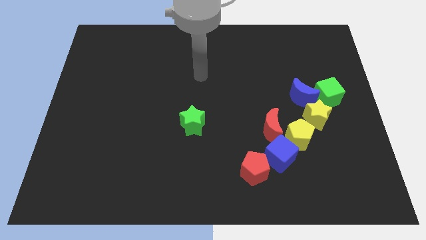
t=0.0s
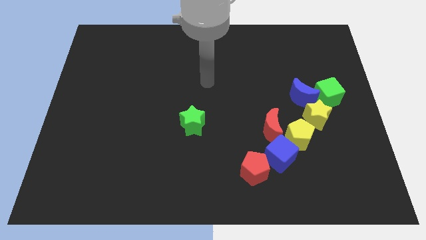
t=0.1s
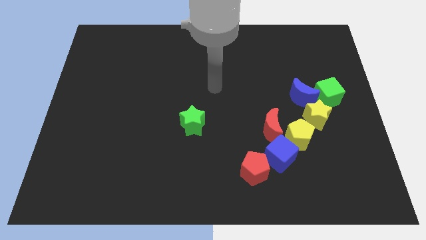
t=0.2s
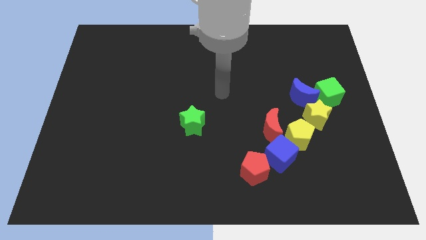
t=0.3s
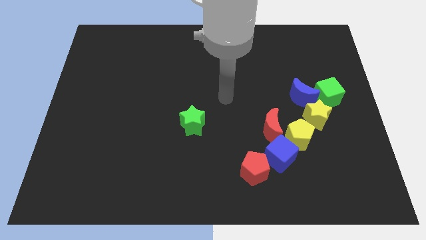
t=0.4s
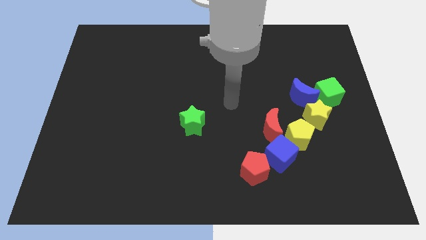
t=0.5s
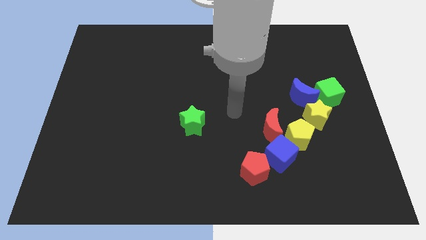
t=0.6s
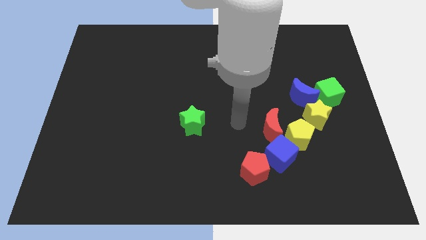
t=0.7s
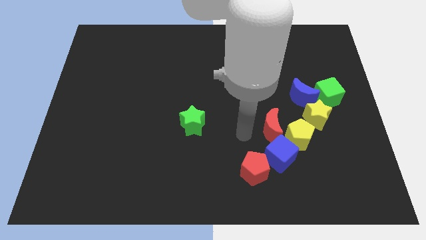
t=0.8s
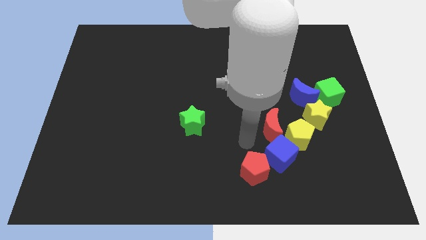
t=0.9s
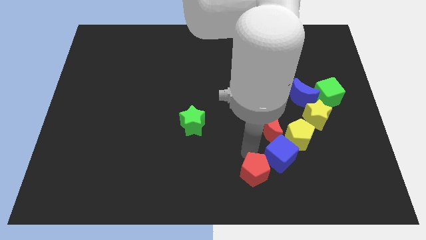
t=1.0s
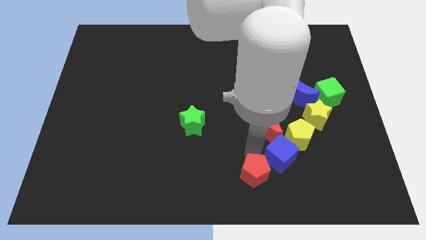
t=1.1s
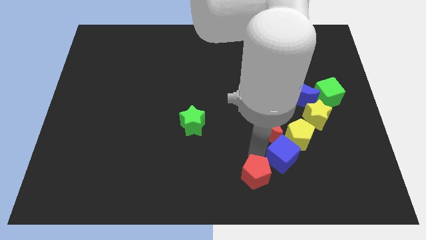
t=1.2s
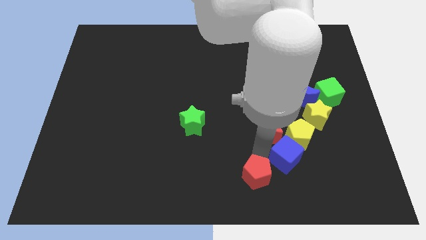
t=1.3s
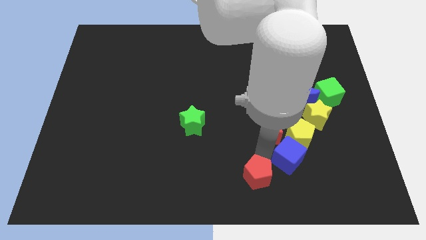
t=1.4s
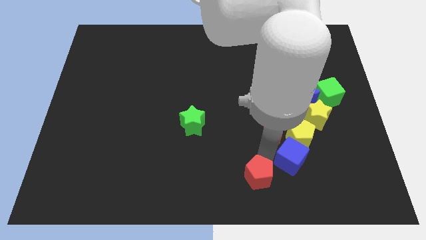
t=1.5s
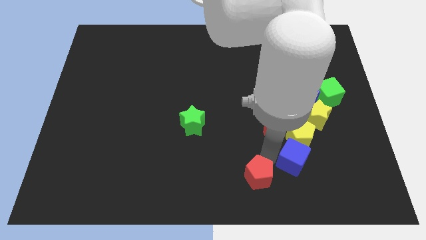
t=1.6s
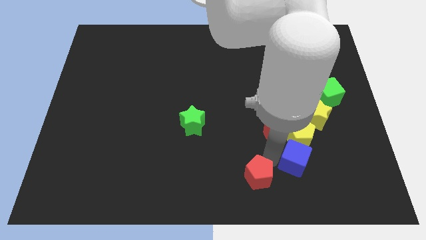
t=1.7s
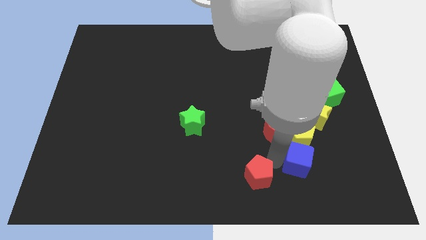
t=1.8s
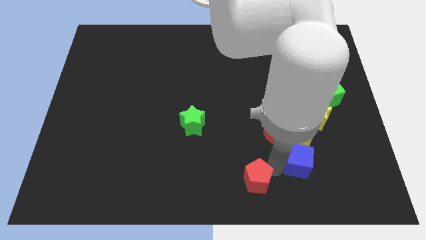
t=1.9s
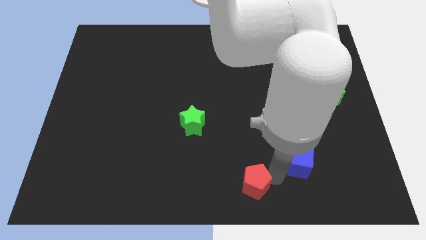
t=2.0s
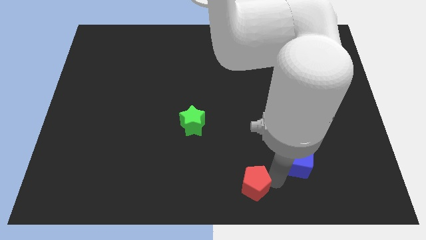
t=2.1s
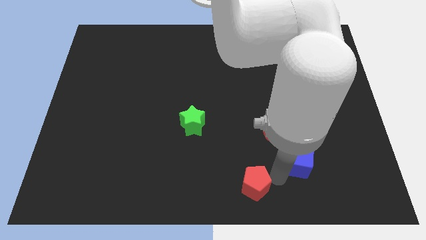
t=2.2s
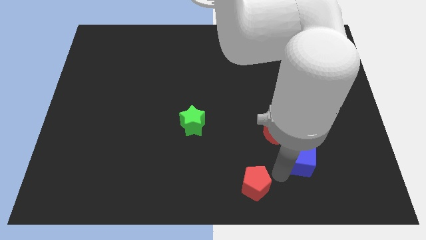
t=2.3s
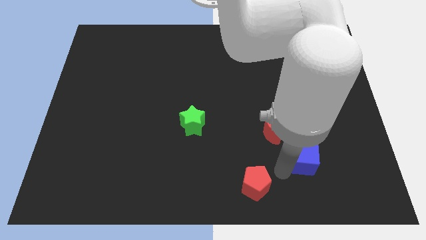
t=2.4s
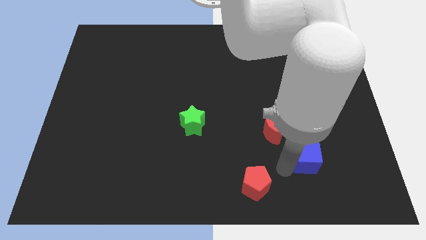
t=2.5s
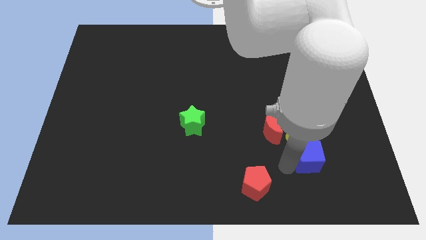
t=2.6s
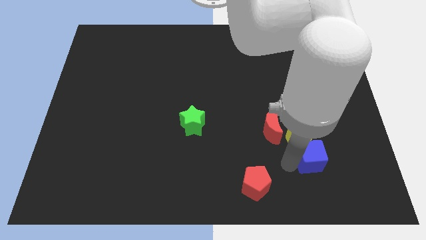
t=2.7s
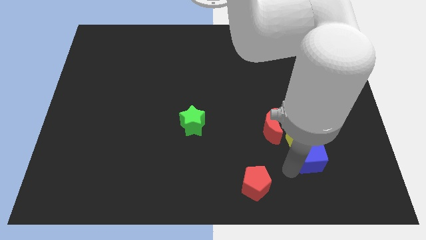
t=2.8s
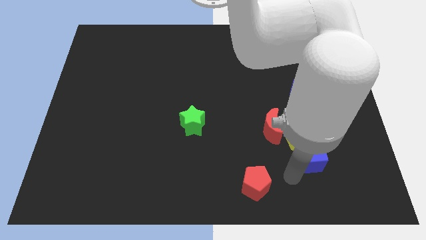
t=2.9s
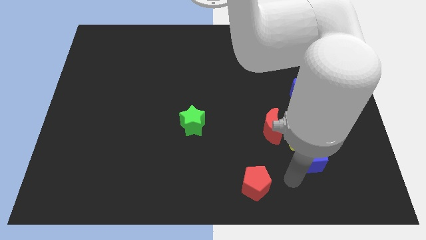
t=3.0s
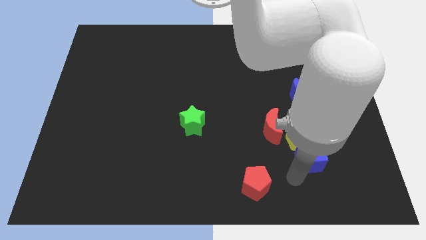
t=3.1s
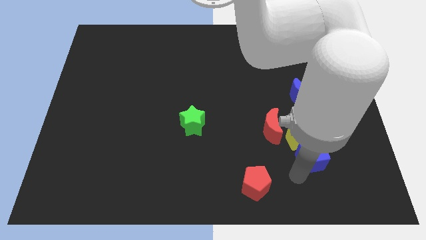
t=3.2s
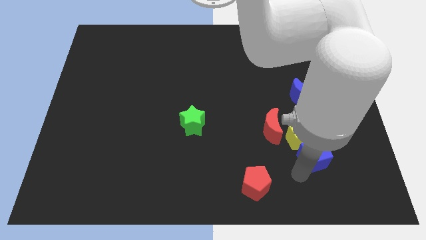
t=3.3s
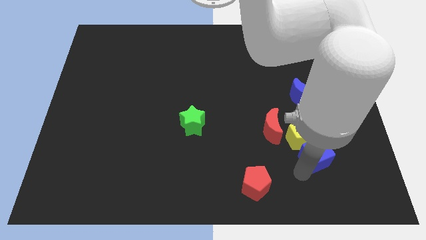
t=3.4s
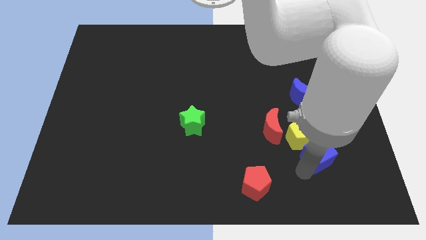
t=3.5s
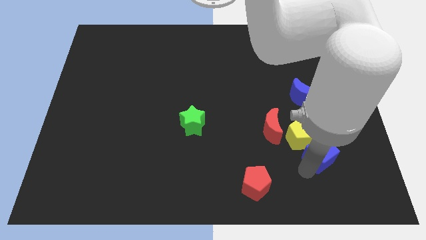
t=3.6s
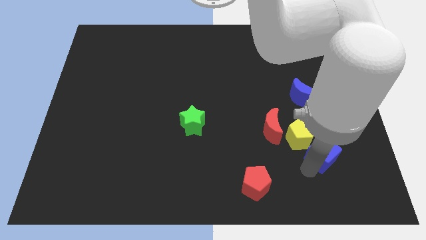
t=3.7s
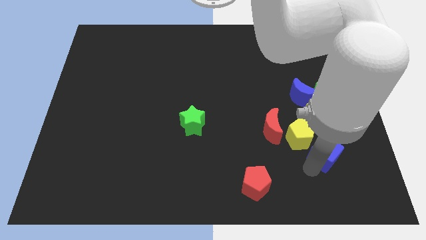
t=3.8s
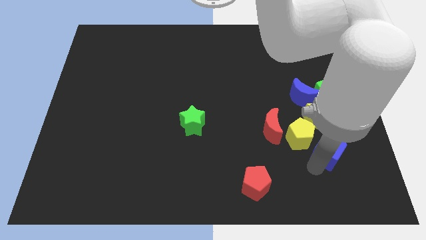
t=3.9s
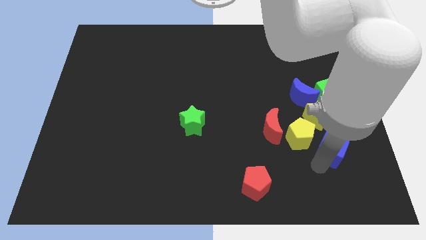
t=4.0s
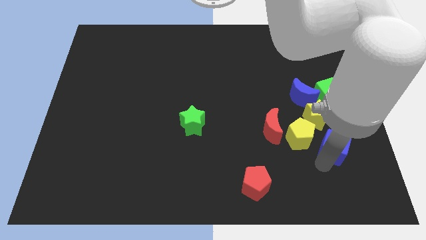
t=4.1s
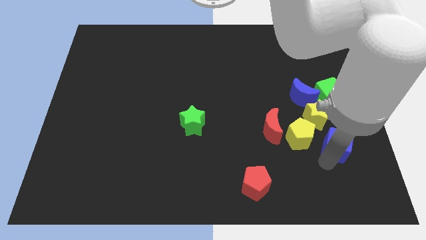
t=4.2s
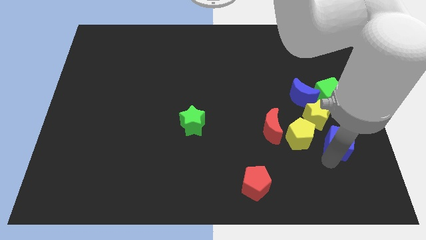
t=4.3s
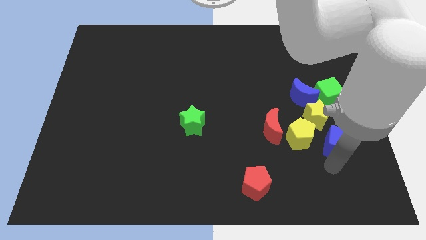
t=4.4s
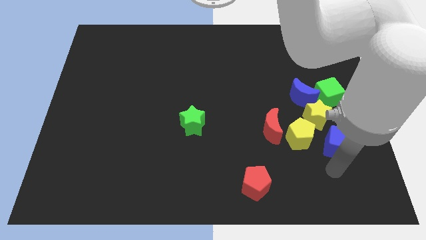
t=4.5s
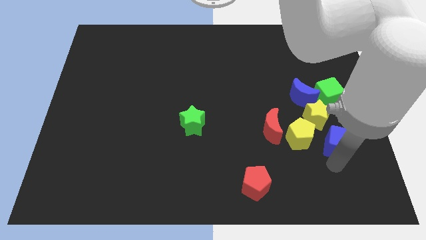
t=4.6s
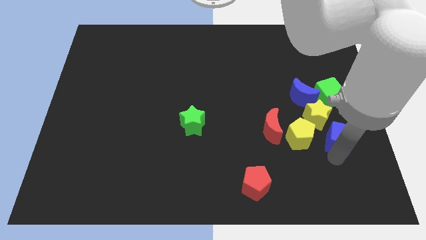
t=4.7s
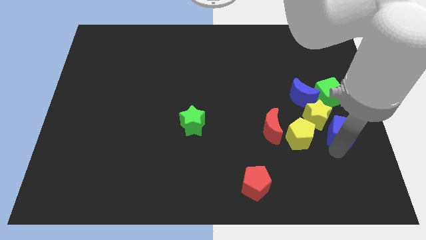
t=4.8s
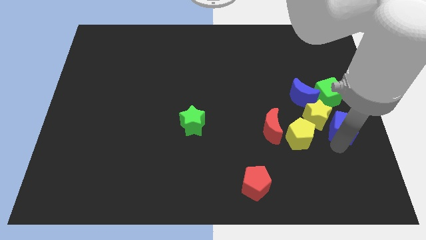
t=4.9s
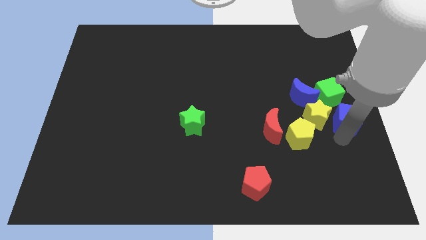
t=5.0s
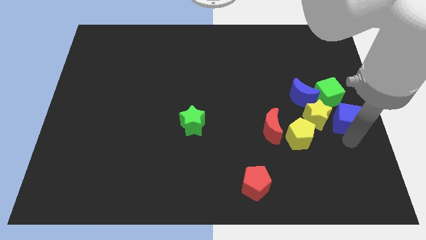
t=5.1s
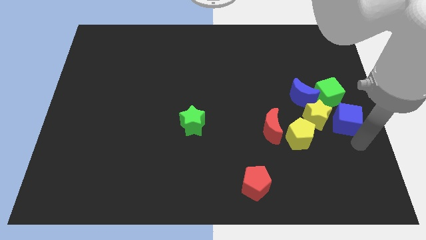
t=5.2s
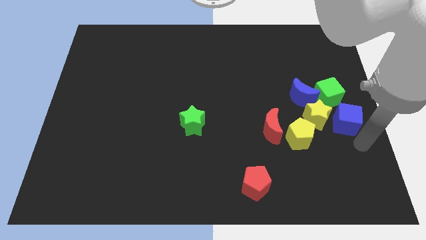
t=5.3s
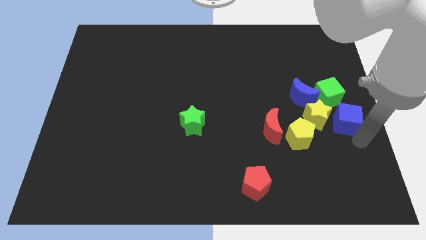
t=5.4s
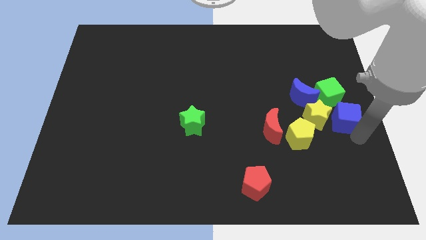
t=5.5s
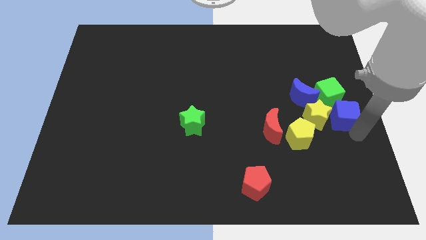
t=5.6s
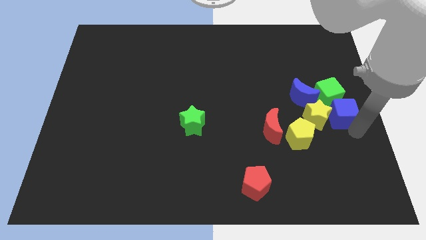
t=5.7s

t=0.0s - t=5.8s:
put the blue cube next to the green cube

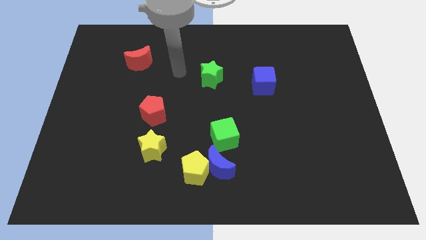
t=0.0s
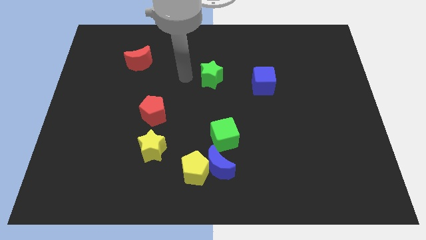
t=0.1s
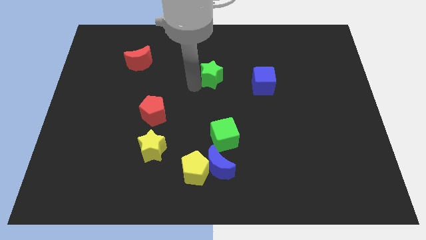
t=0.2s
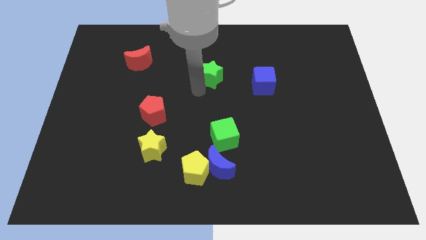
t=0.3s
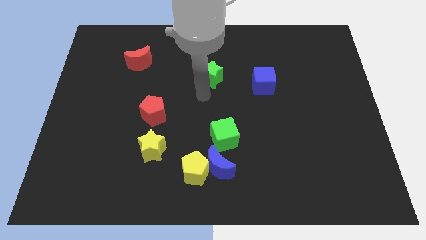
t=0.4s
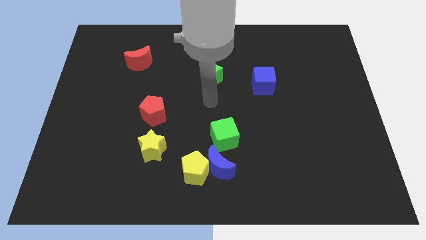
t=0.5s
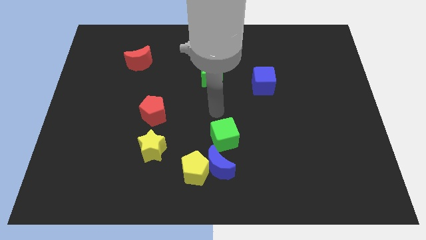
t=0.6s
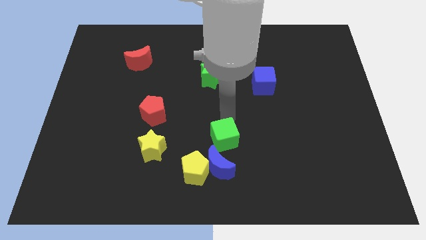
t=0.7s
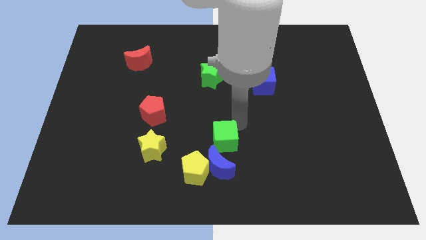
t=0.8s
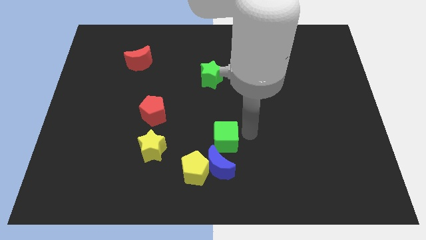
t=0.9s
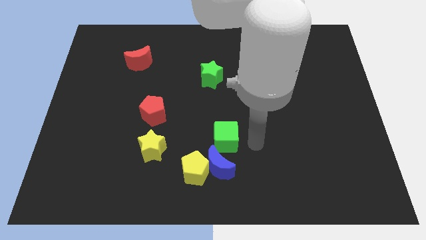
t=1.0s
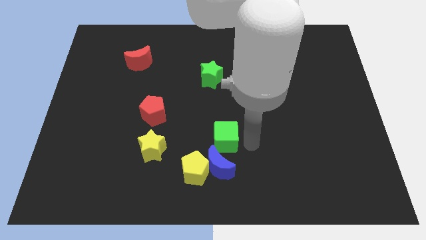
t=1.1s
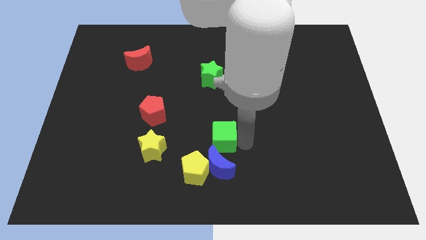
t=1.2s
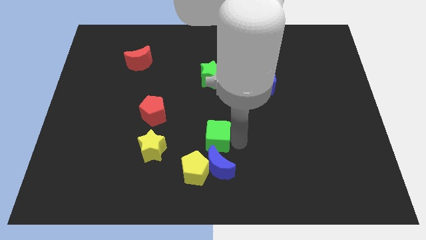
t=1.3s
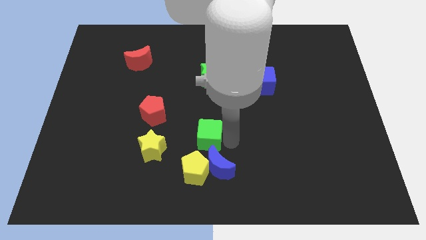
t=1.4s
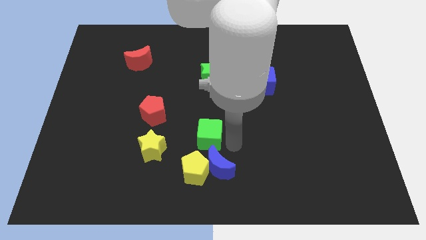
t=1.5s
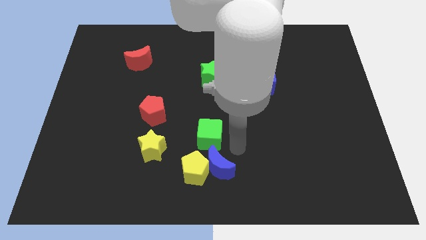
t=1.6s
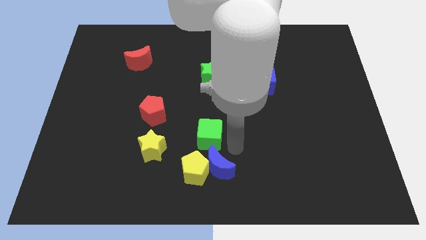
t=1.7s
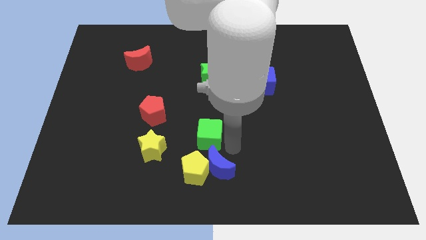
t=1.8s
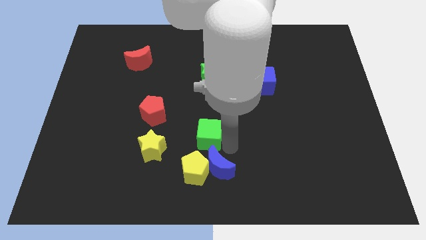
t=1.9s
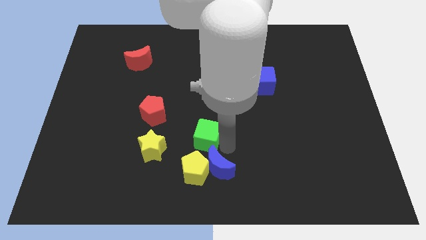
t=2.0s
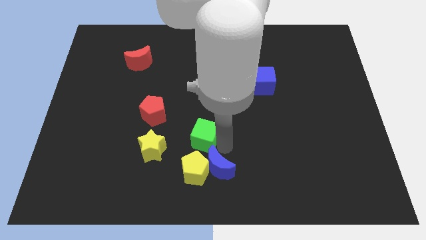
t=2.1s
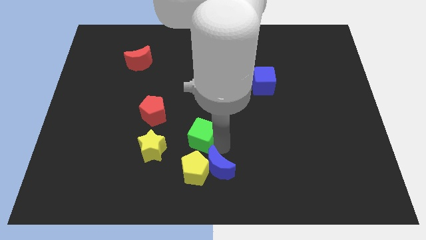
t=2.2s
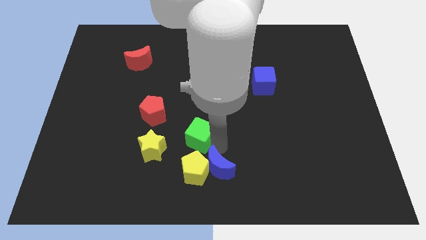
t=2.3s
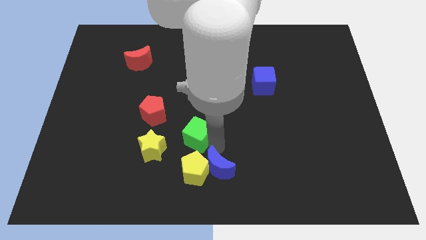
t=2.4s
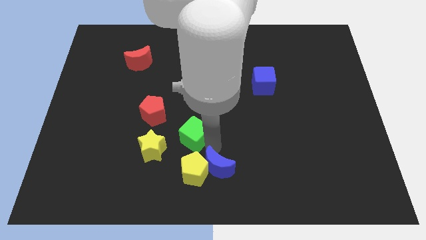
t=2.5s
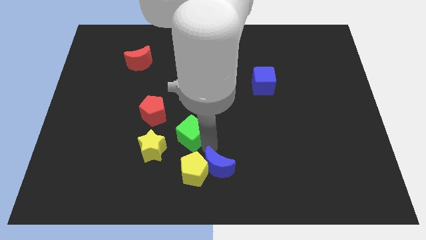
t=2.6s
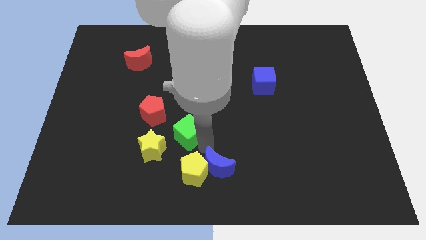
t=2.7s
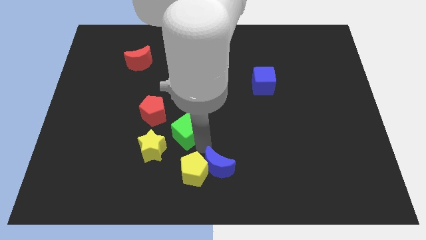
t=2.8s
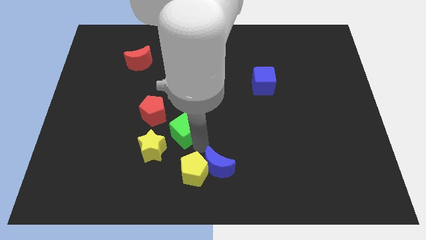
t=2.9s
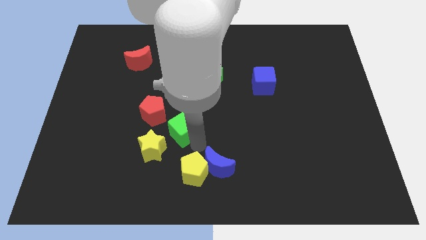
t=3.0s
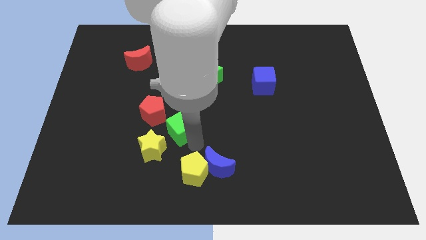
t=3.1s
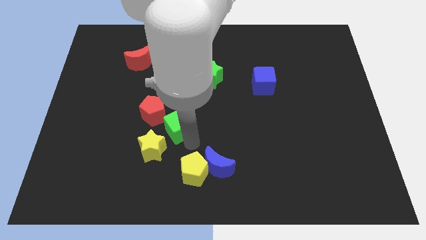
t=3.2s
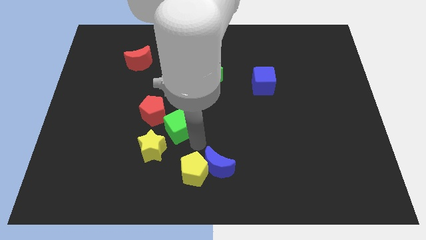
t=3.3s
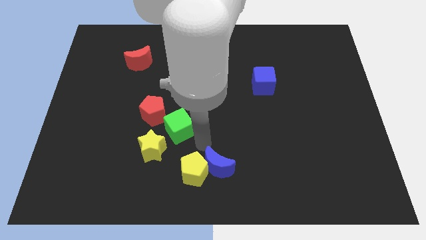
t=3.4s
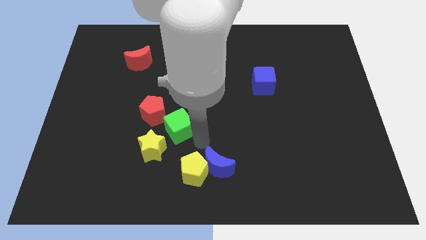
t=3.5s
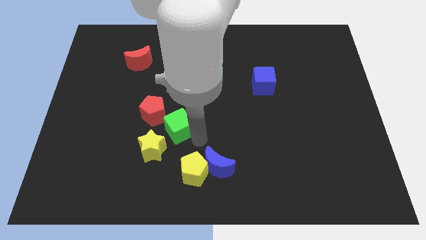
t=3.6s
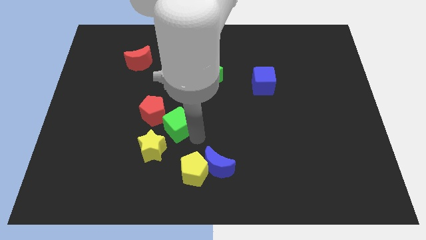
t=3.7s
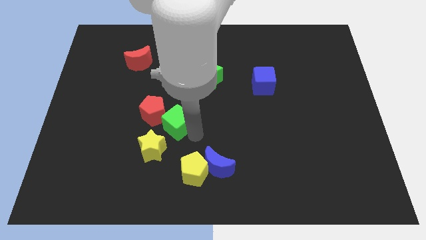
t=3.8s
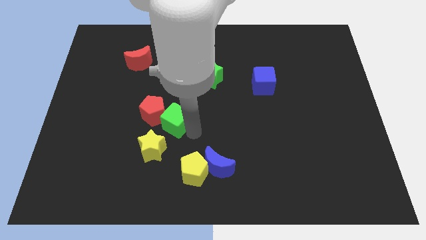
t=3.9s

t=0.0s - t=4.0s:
push the green cube towards the red pentagon
